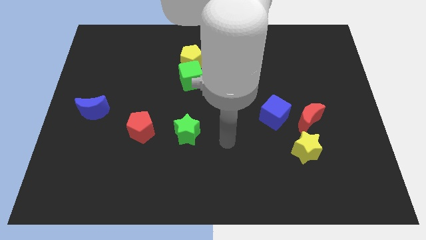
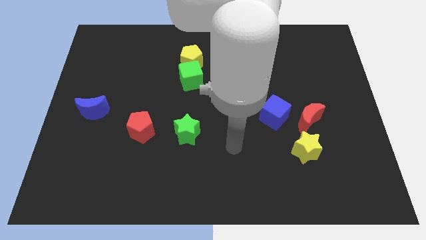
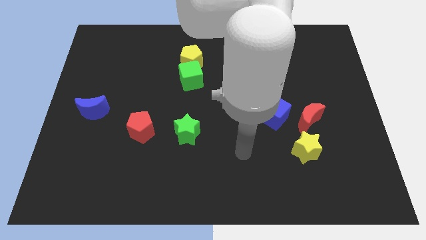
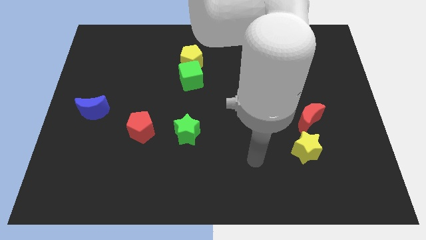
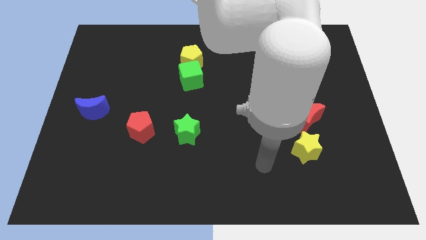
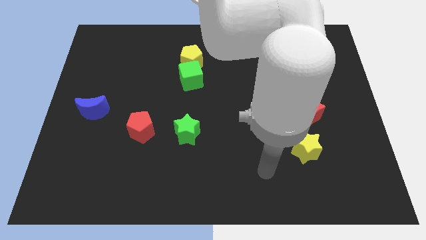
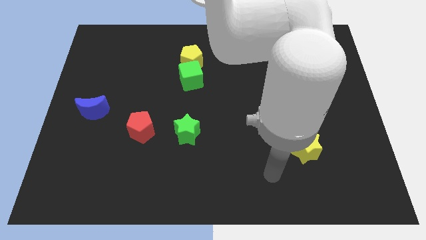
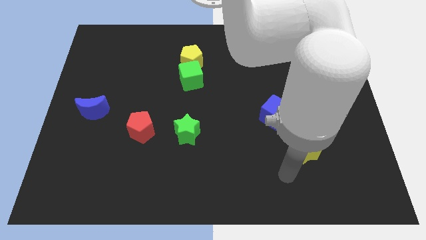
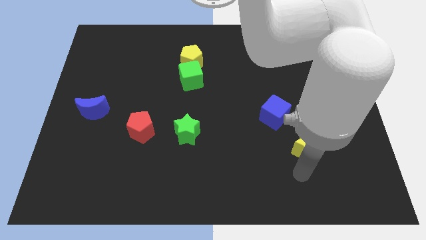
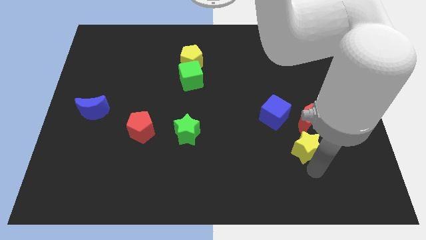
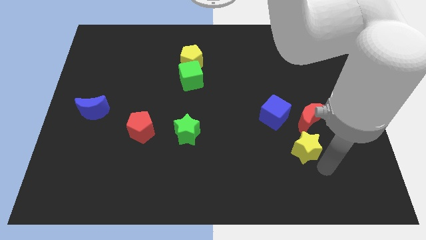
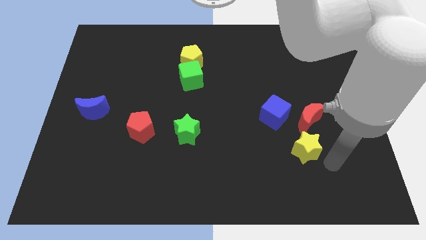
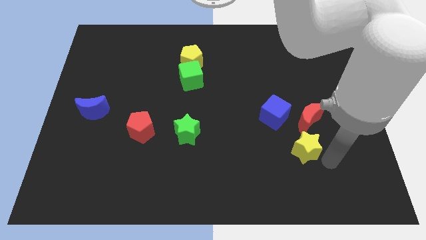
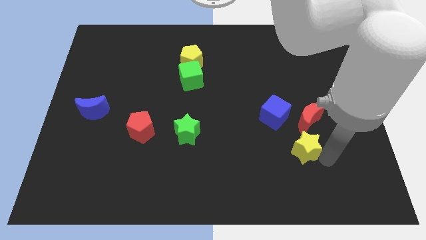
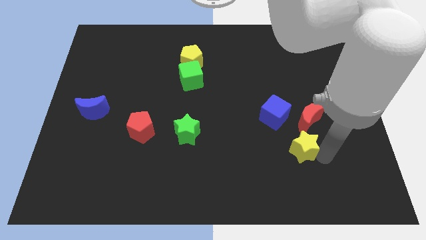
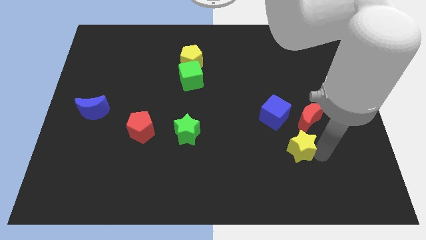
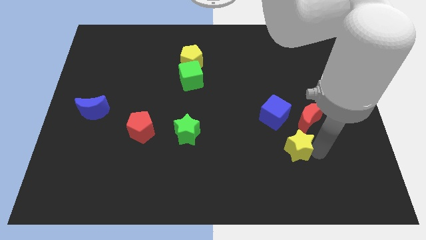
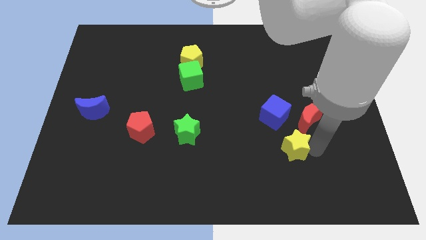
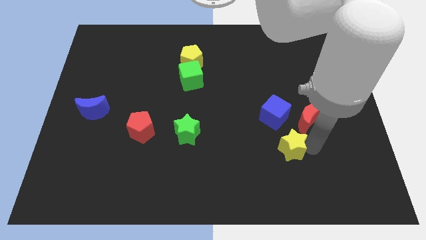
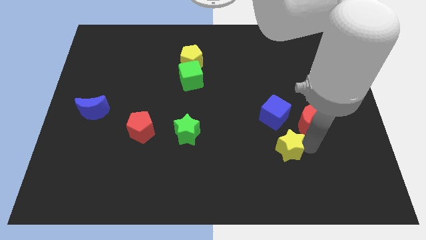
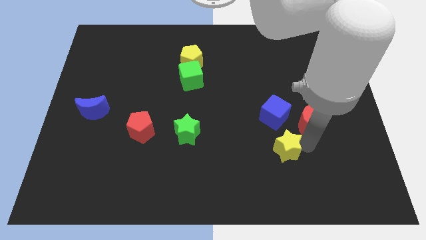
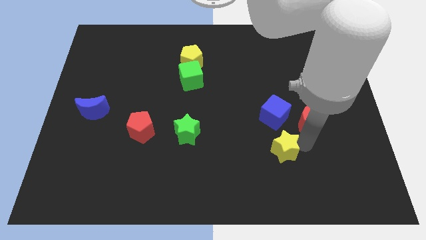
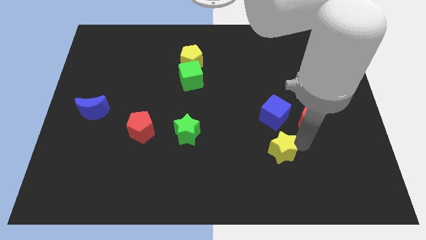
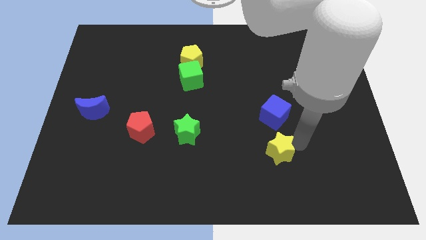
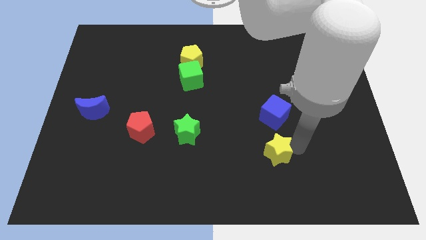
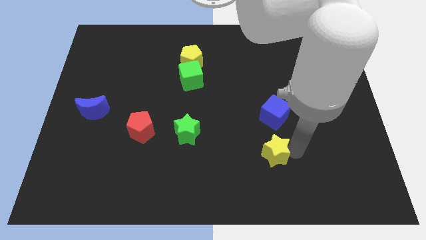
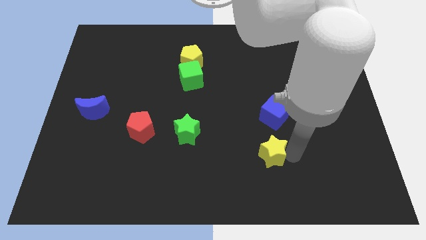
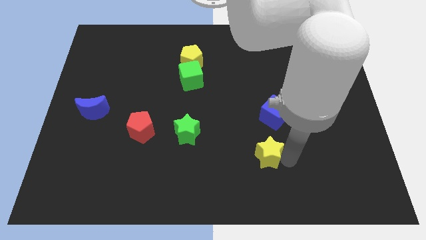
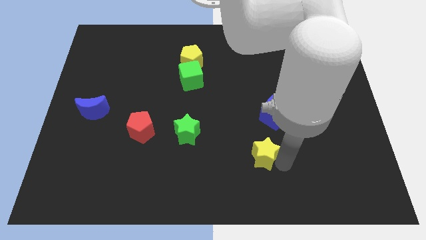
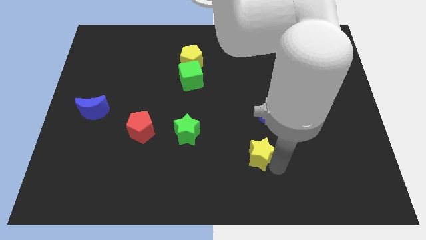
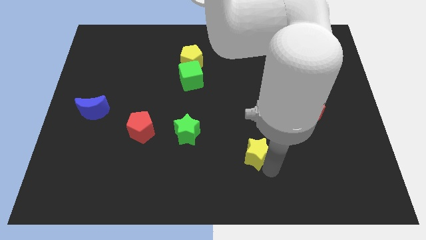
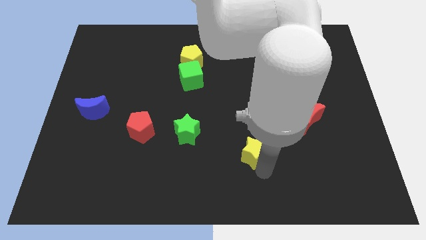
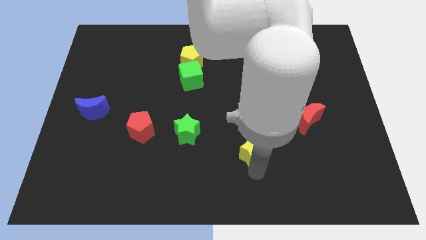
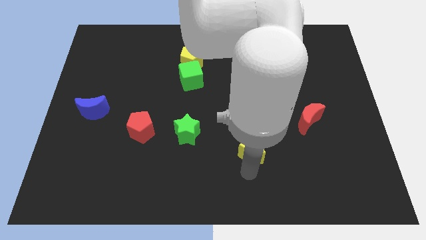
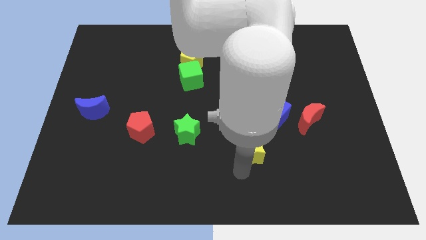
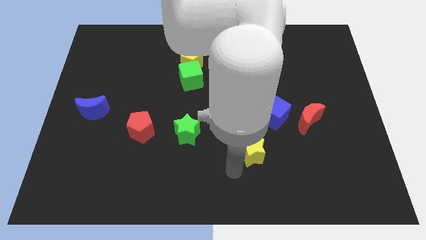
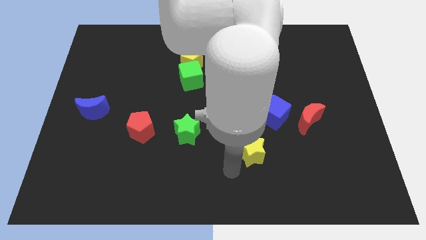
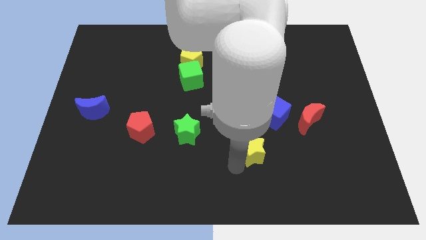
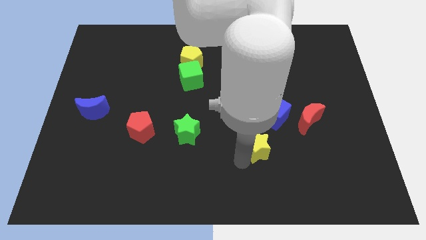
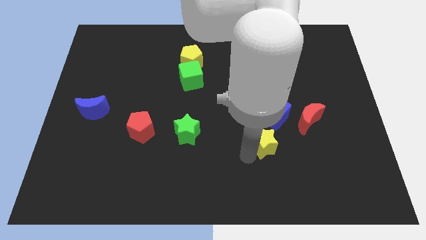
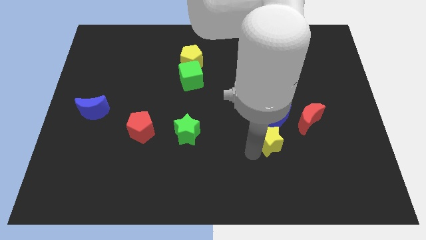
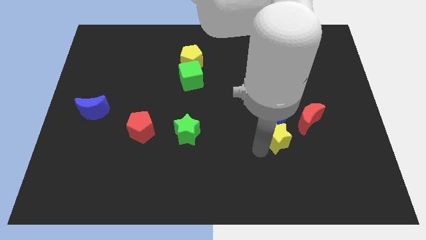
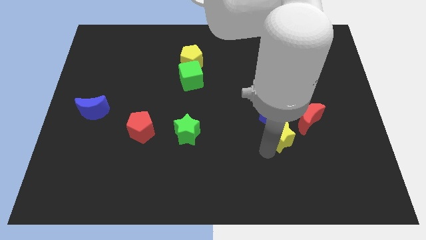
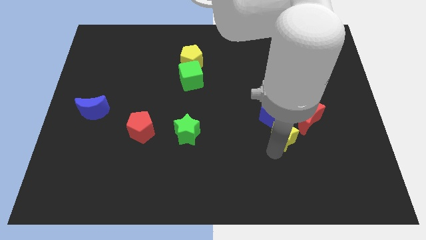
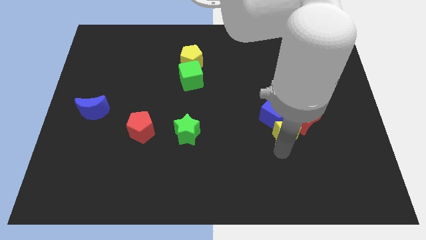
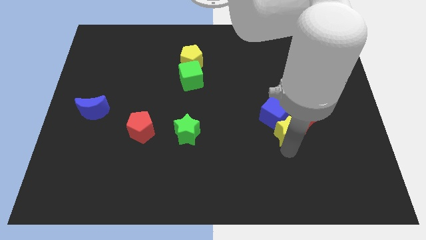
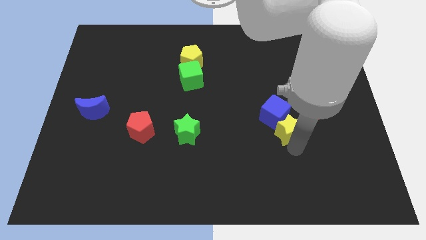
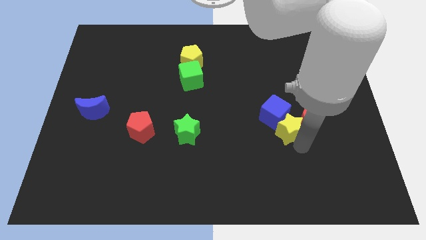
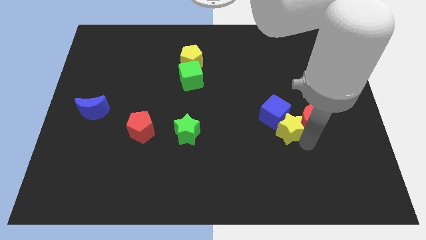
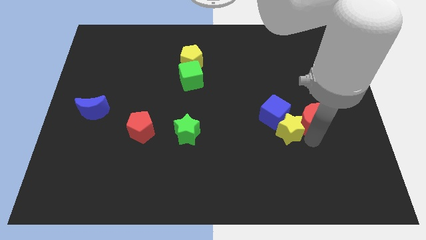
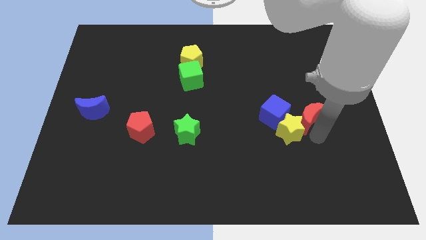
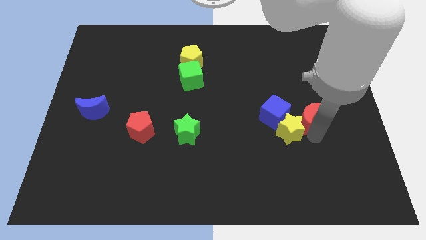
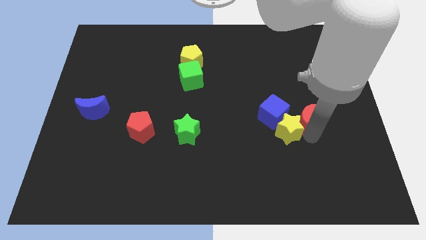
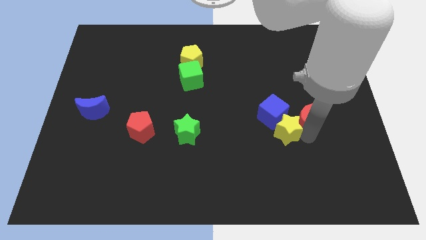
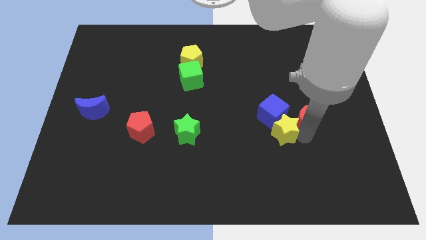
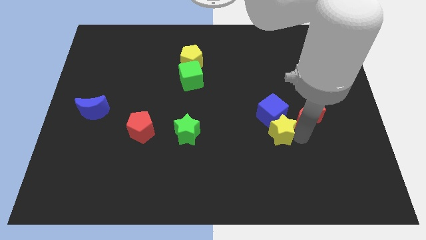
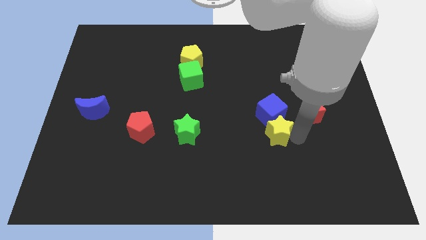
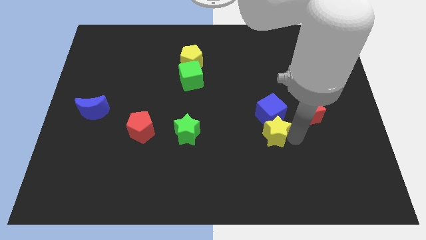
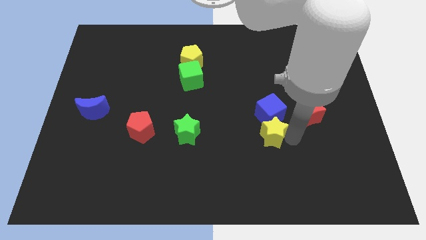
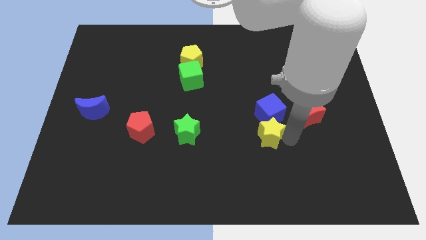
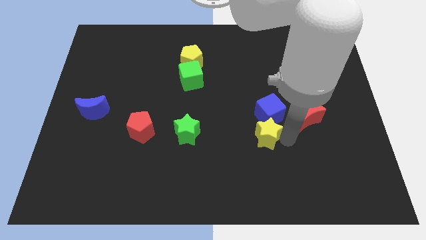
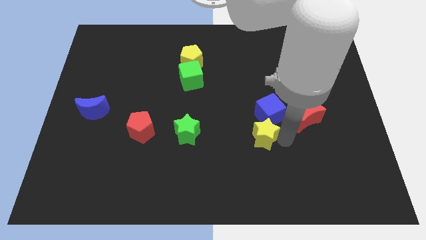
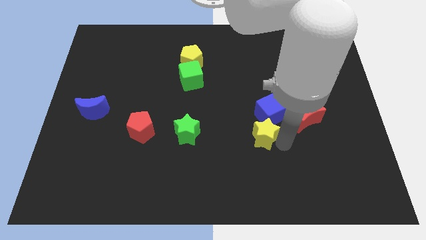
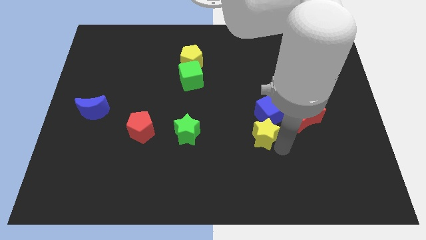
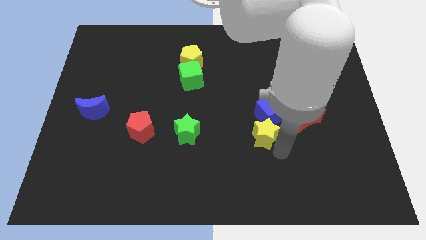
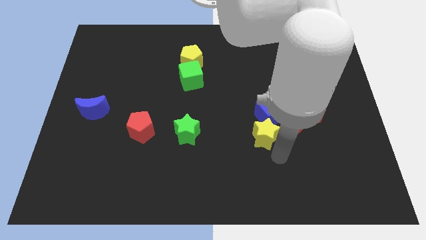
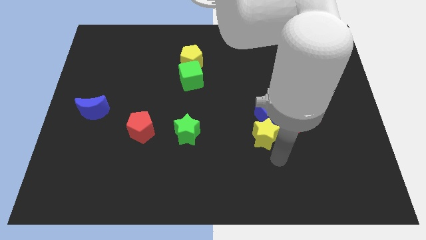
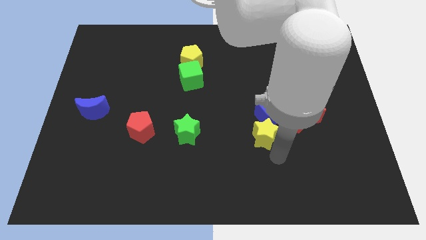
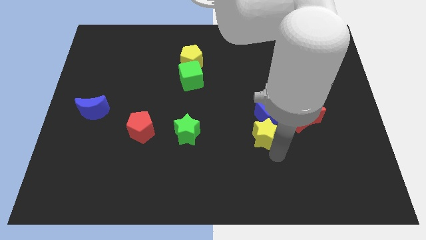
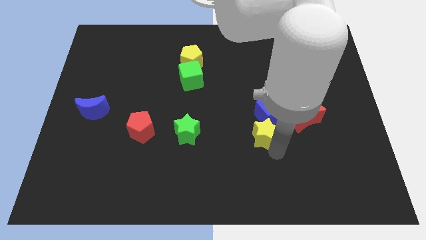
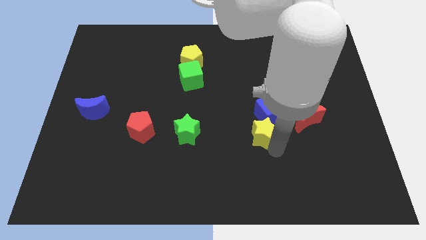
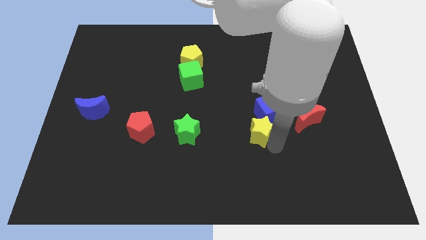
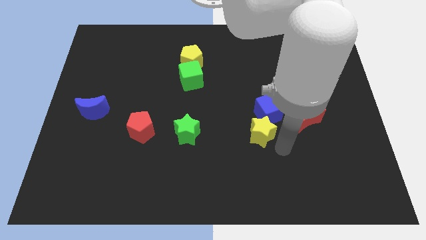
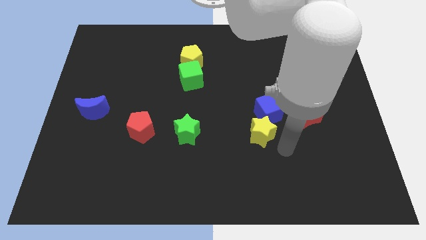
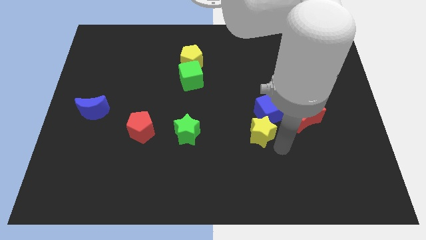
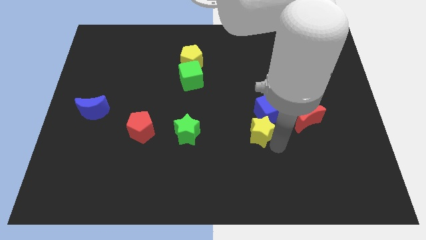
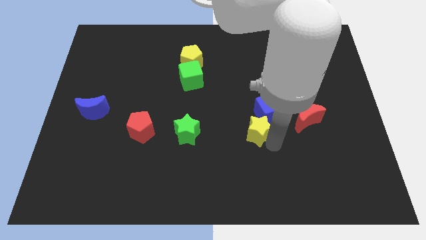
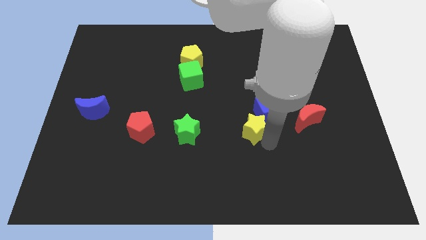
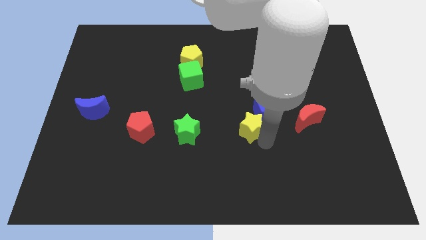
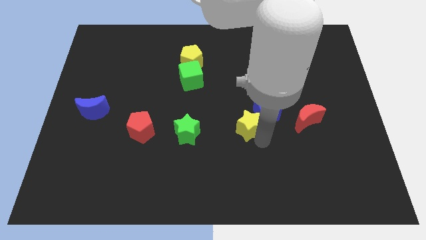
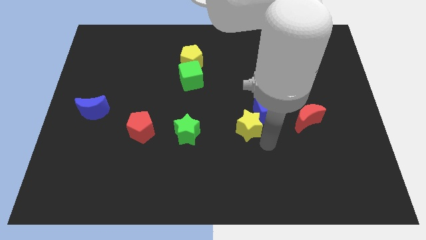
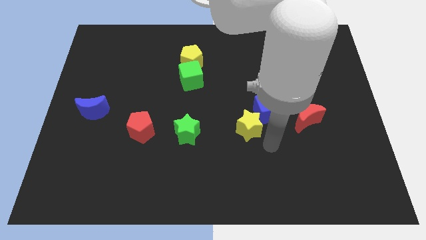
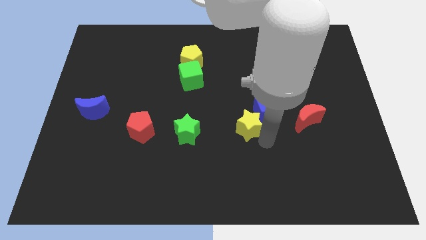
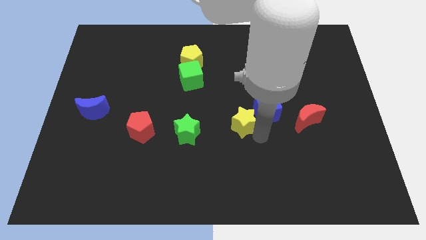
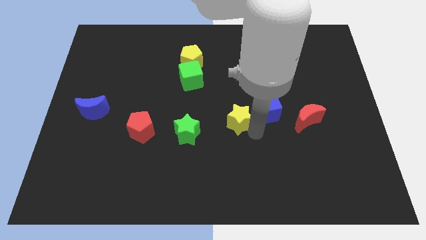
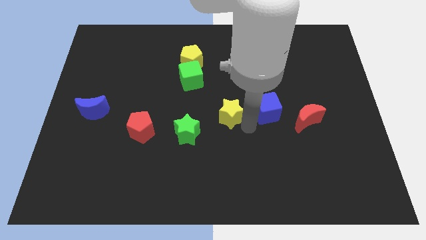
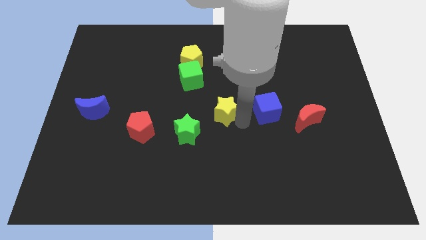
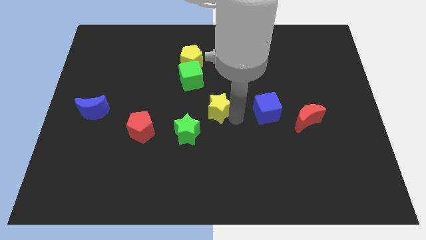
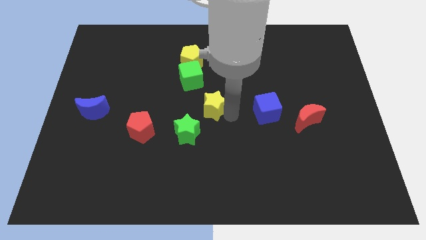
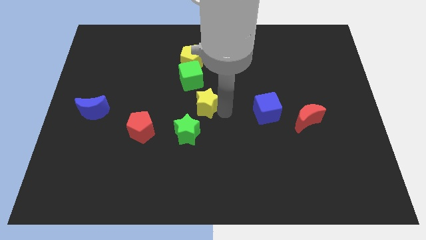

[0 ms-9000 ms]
move the yellow star to the top of the green star
